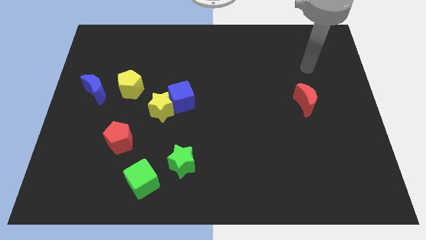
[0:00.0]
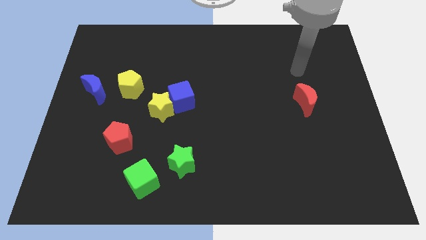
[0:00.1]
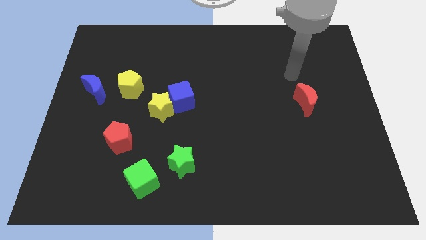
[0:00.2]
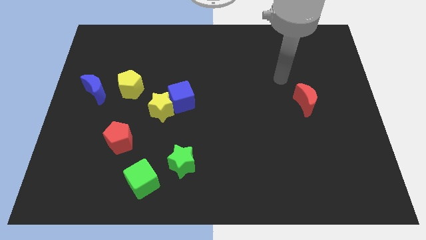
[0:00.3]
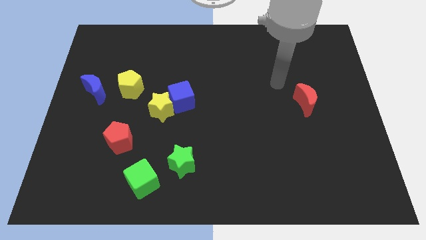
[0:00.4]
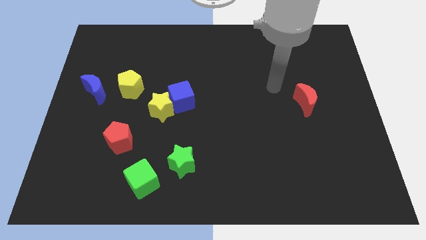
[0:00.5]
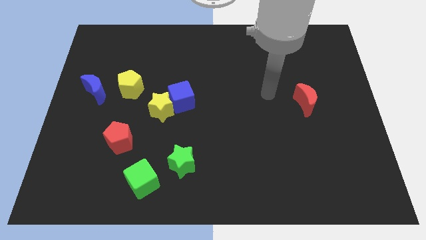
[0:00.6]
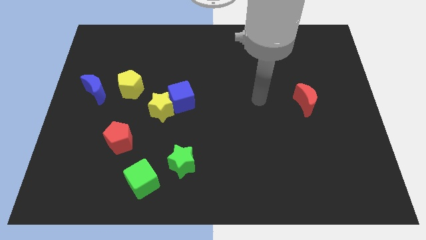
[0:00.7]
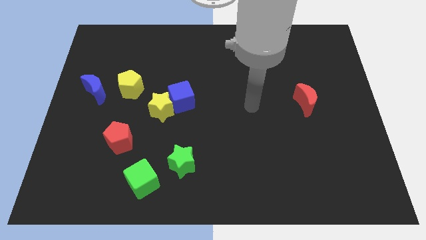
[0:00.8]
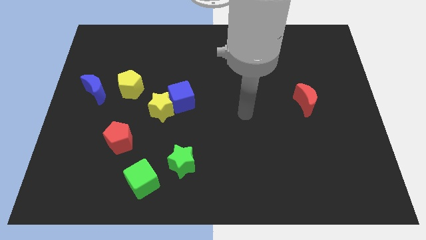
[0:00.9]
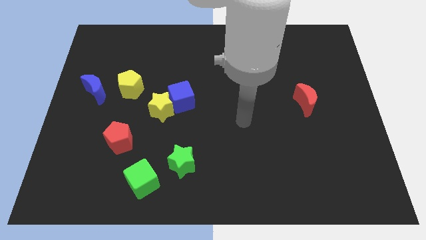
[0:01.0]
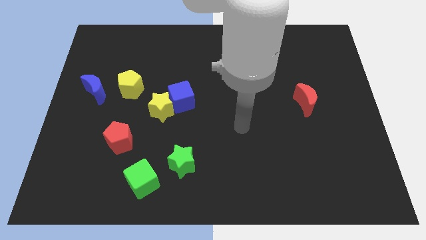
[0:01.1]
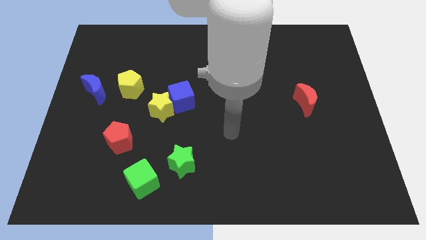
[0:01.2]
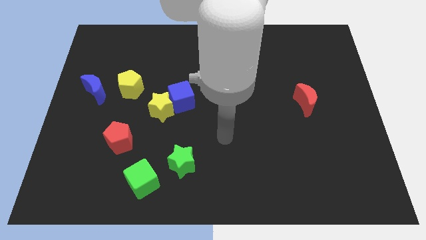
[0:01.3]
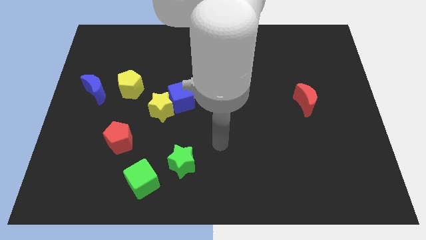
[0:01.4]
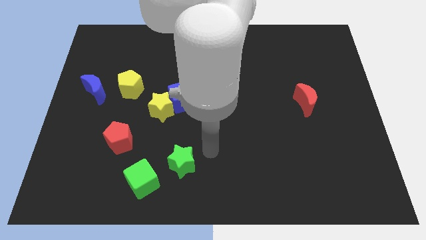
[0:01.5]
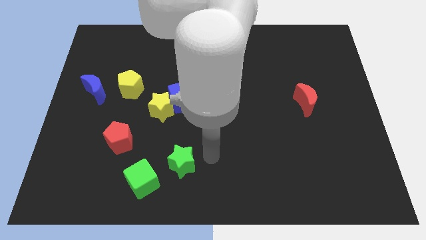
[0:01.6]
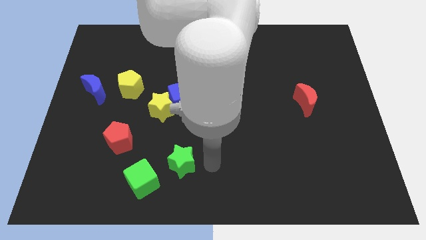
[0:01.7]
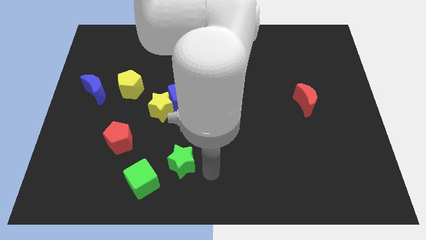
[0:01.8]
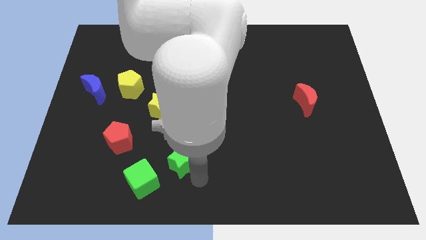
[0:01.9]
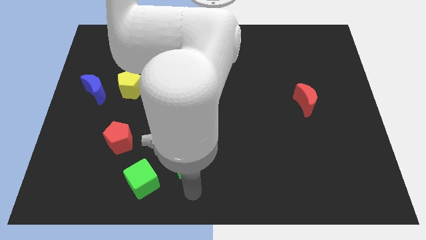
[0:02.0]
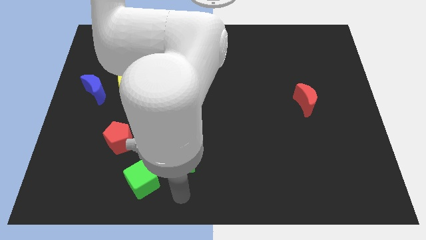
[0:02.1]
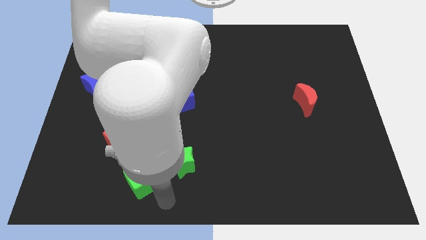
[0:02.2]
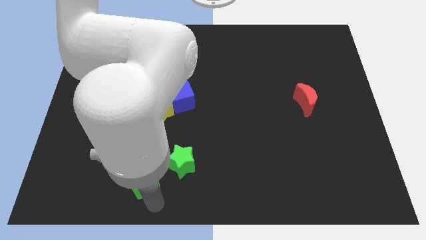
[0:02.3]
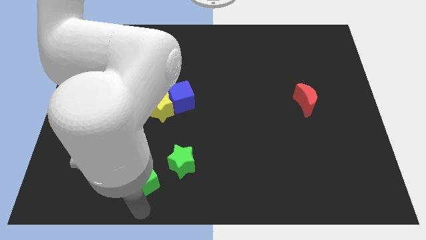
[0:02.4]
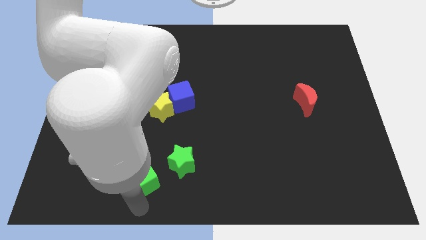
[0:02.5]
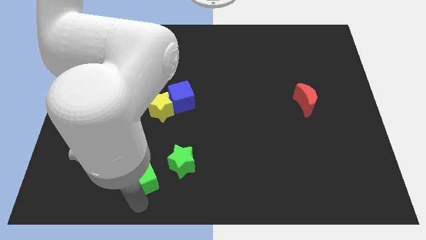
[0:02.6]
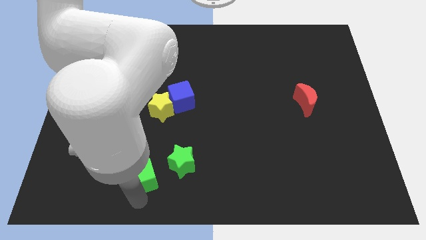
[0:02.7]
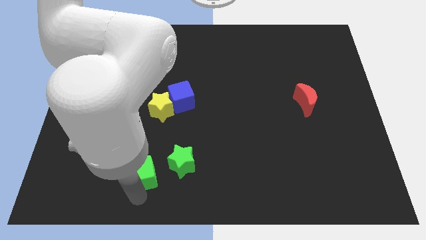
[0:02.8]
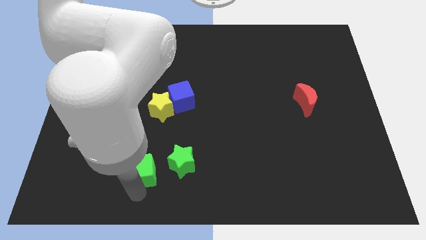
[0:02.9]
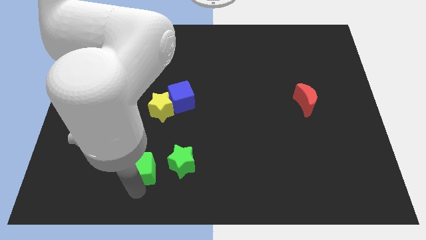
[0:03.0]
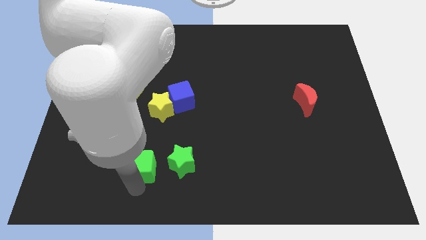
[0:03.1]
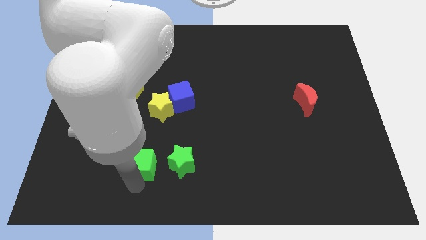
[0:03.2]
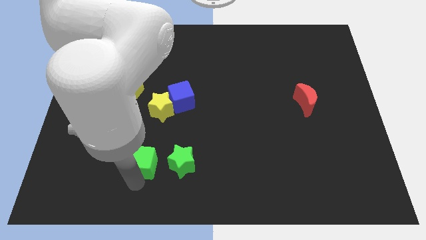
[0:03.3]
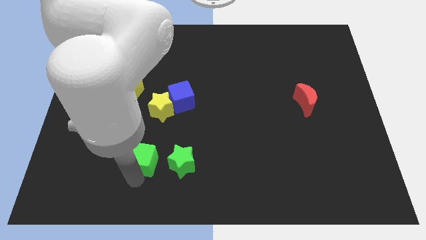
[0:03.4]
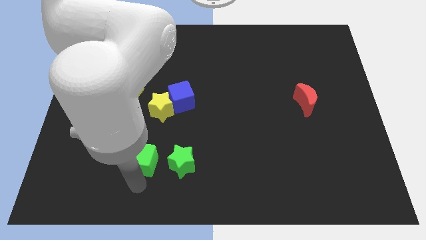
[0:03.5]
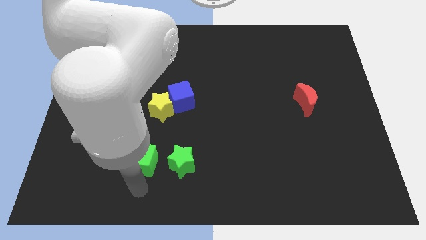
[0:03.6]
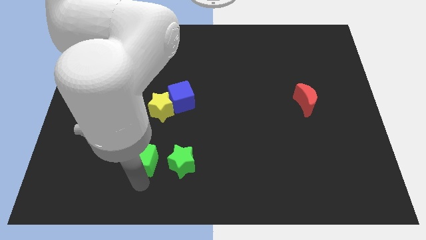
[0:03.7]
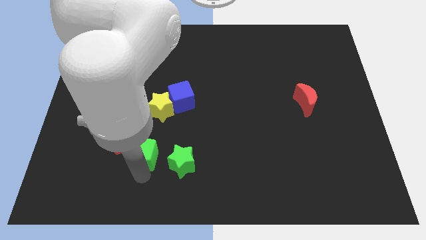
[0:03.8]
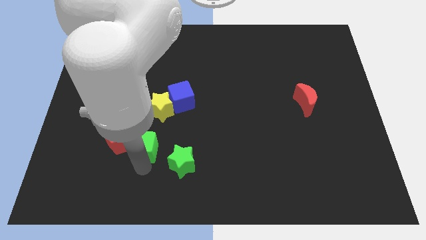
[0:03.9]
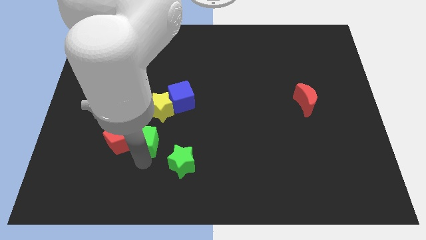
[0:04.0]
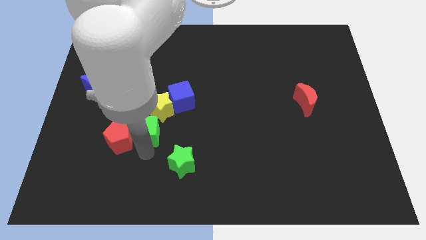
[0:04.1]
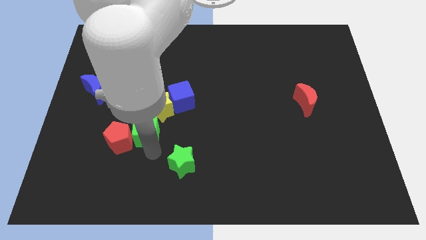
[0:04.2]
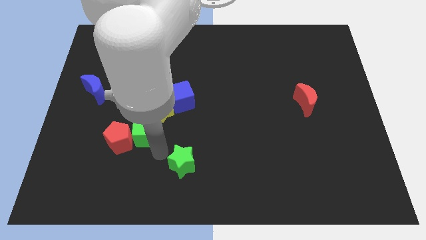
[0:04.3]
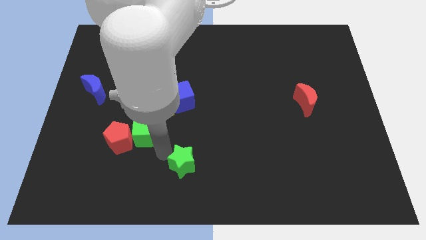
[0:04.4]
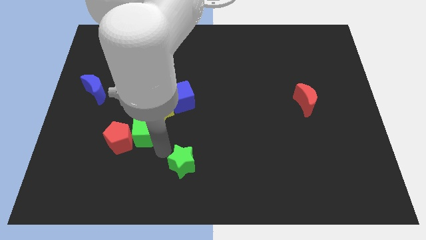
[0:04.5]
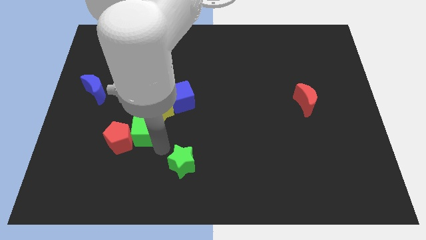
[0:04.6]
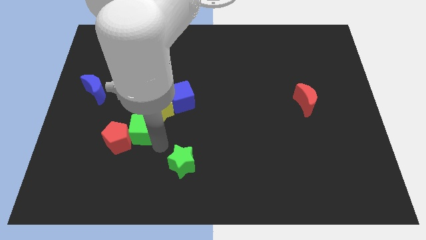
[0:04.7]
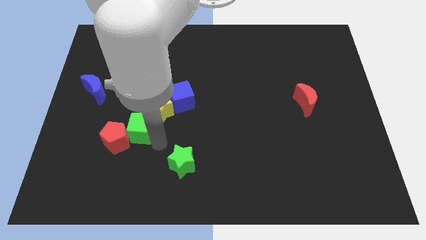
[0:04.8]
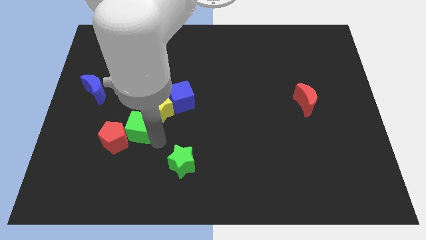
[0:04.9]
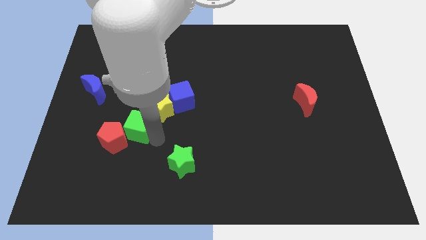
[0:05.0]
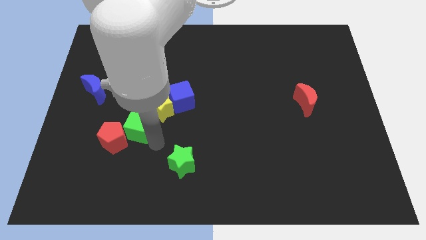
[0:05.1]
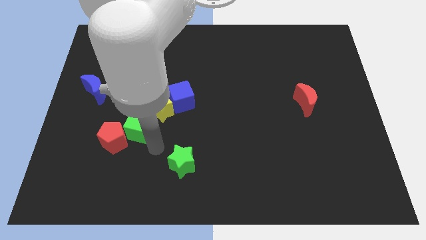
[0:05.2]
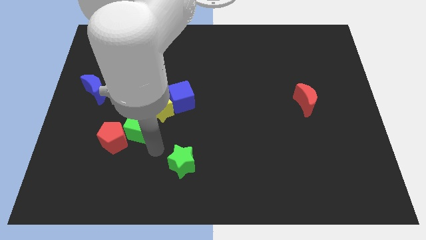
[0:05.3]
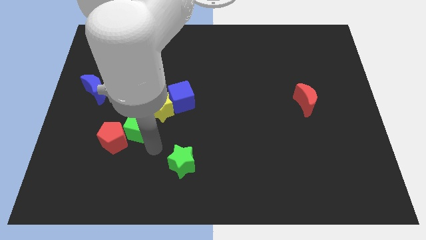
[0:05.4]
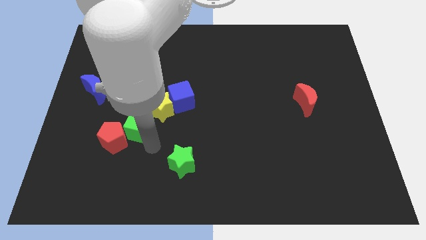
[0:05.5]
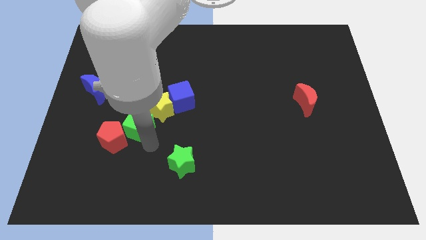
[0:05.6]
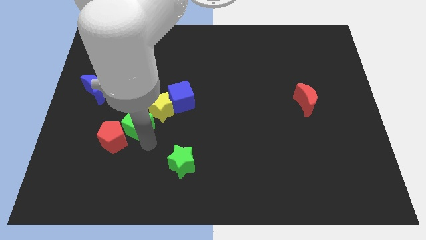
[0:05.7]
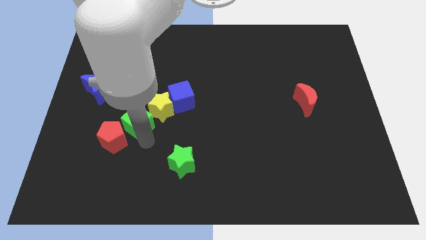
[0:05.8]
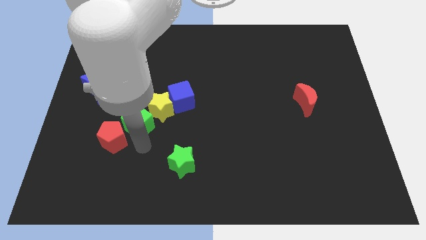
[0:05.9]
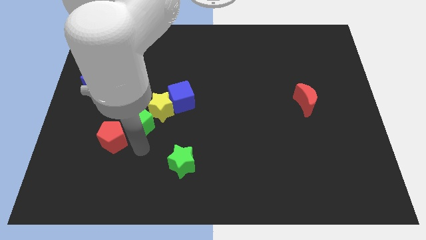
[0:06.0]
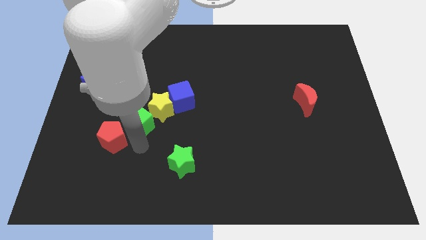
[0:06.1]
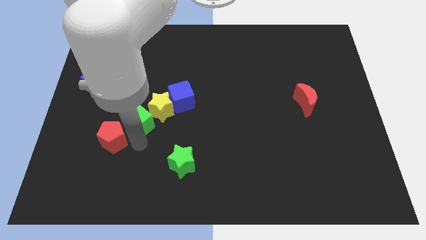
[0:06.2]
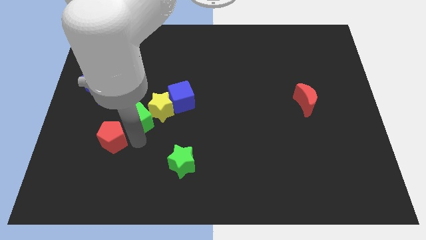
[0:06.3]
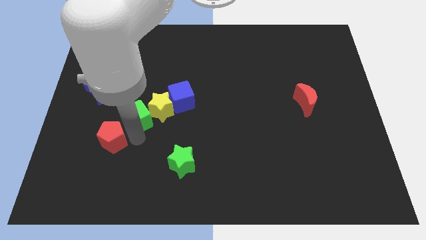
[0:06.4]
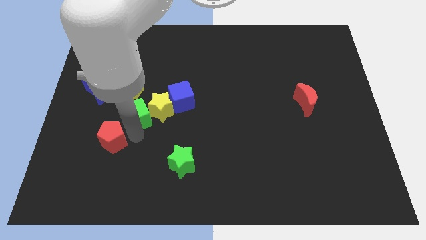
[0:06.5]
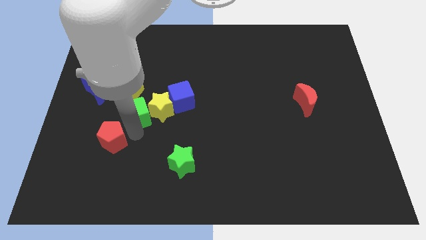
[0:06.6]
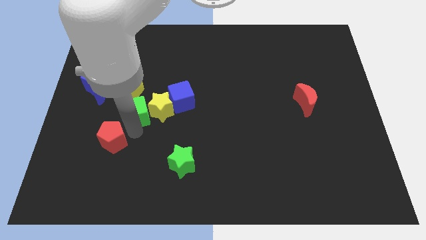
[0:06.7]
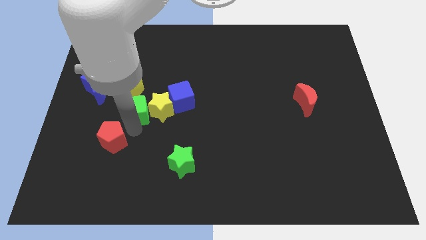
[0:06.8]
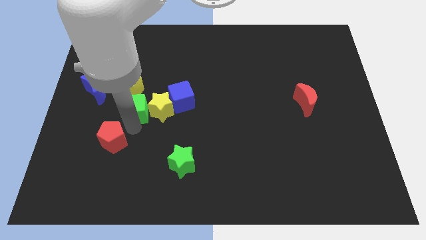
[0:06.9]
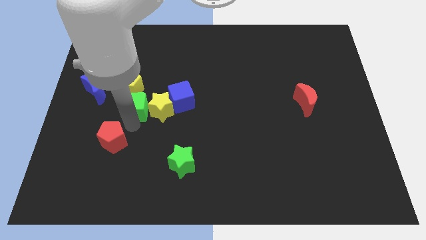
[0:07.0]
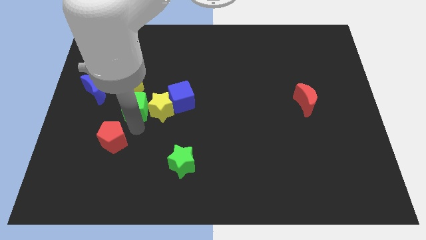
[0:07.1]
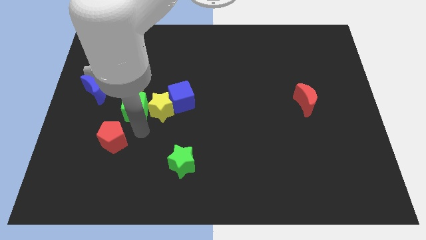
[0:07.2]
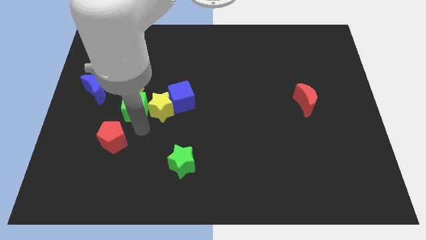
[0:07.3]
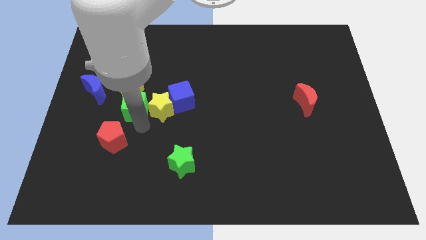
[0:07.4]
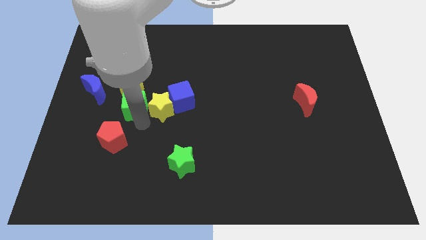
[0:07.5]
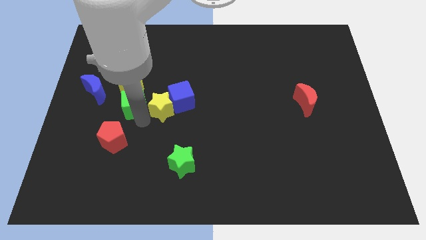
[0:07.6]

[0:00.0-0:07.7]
push the green cube to the yellow pentagon

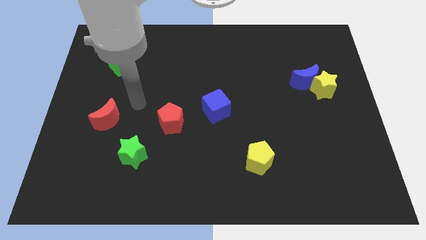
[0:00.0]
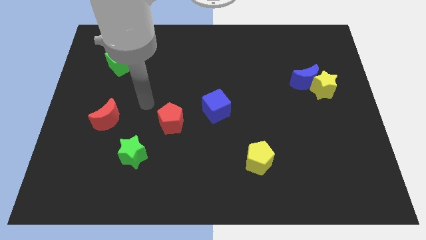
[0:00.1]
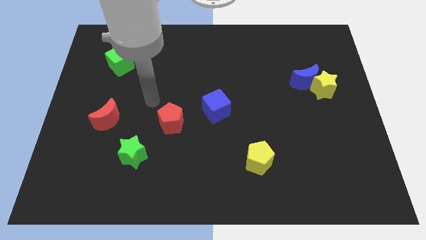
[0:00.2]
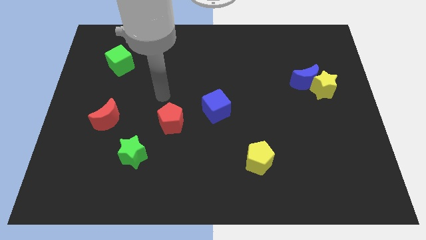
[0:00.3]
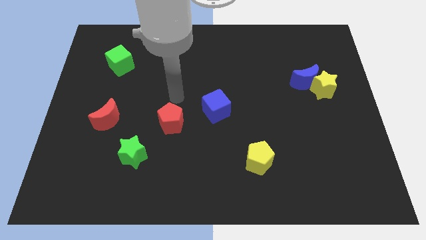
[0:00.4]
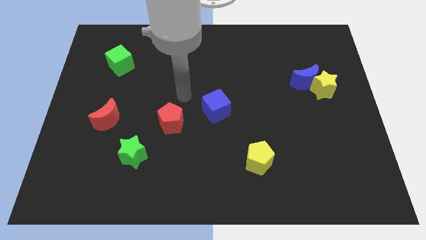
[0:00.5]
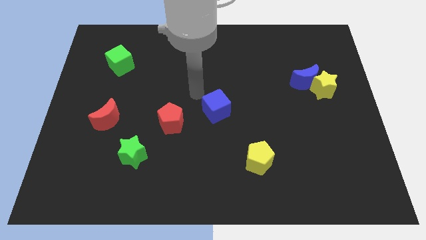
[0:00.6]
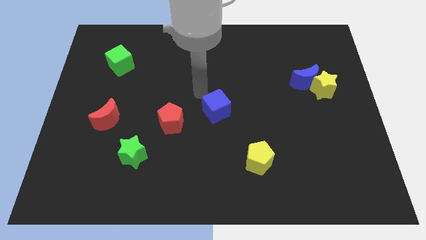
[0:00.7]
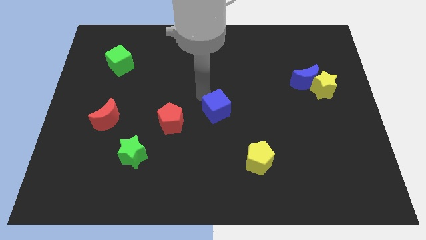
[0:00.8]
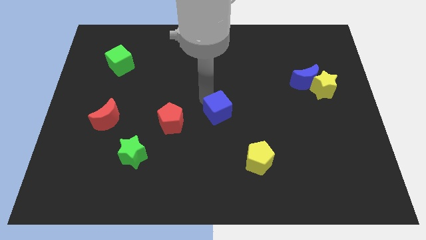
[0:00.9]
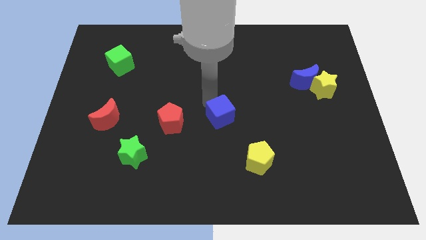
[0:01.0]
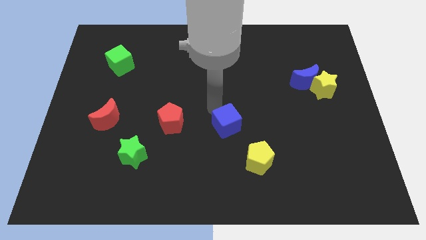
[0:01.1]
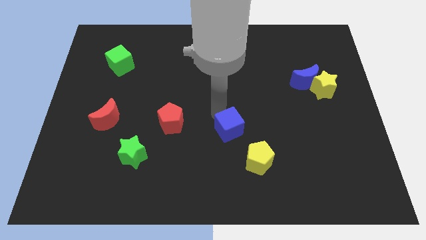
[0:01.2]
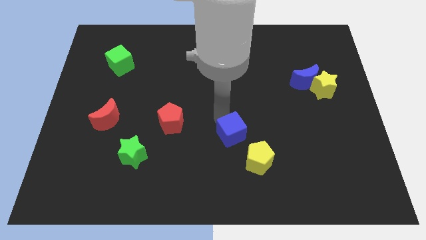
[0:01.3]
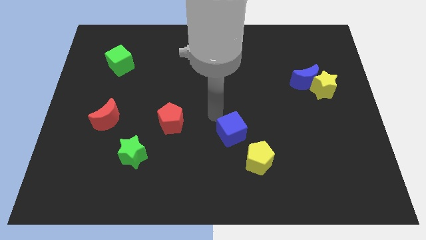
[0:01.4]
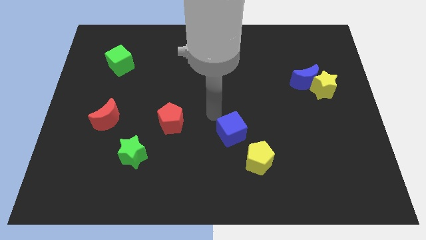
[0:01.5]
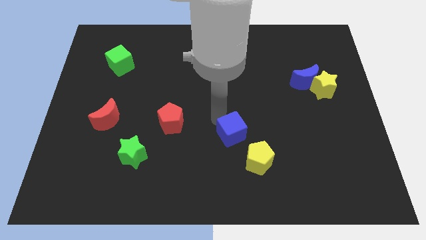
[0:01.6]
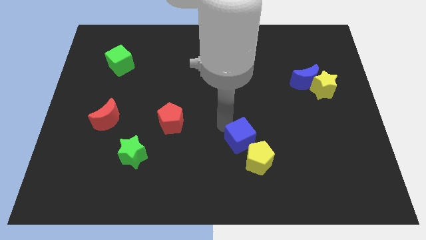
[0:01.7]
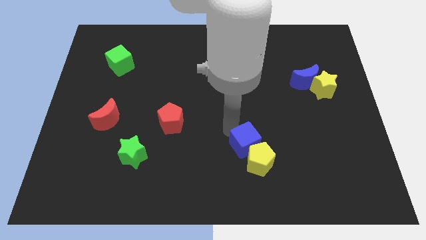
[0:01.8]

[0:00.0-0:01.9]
slide the blue cube next to the yellow pentagon
